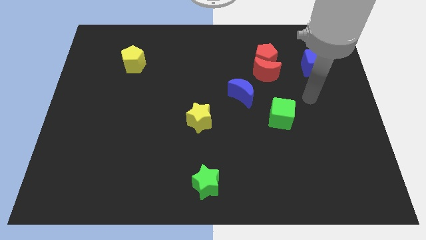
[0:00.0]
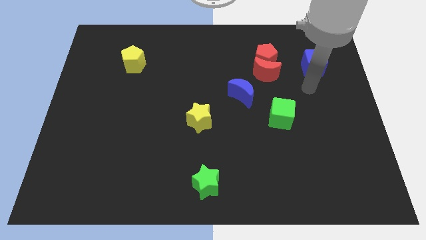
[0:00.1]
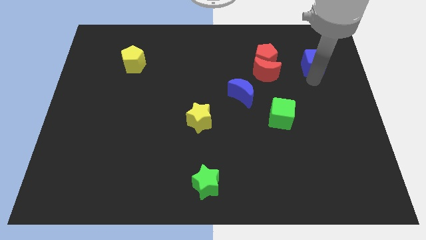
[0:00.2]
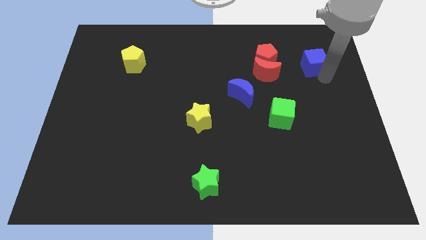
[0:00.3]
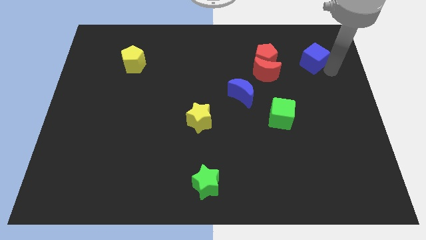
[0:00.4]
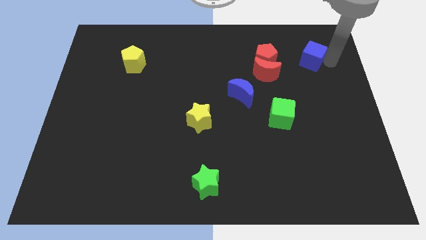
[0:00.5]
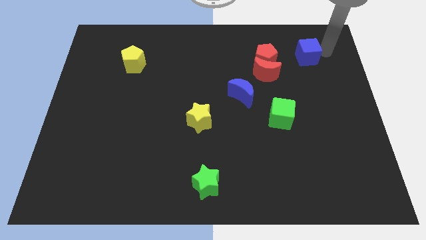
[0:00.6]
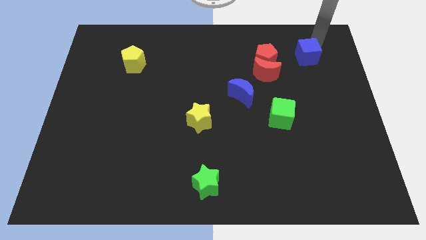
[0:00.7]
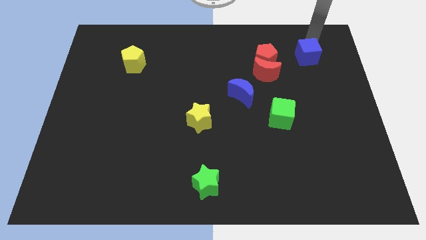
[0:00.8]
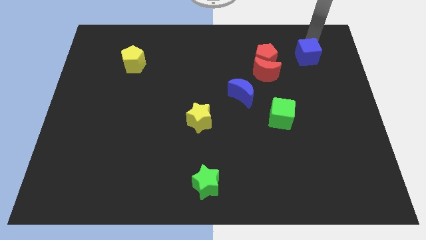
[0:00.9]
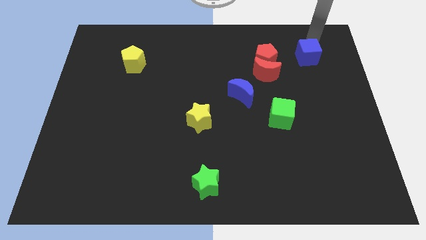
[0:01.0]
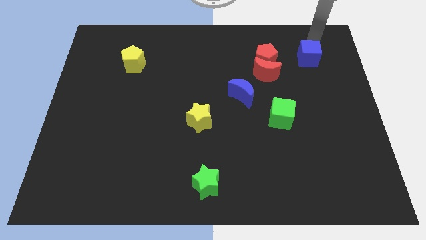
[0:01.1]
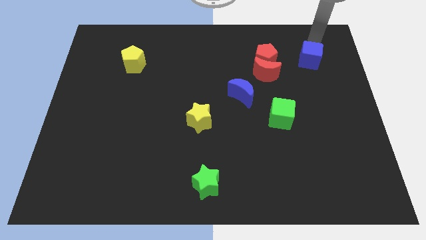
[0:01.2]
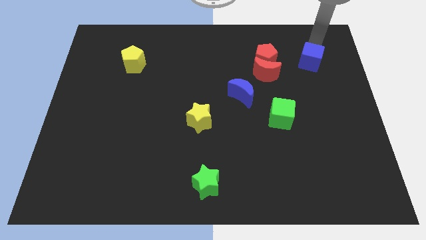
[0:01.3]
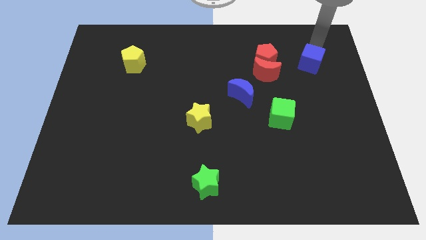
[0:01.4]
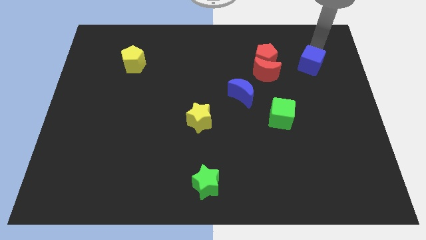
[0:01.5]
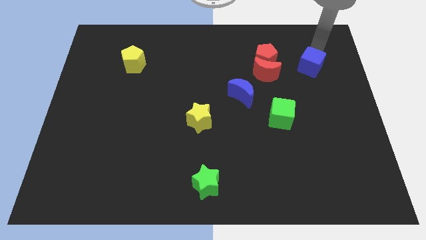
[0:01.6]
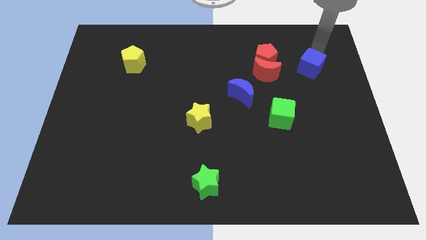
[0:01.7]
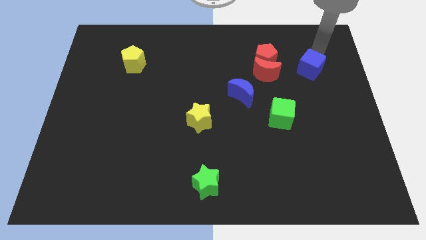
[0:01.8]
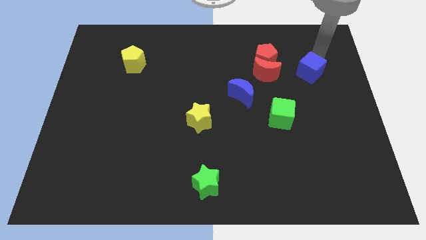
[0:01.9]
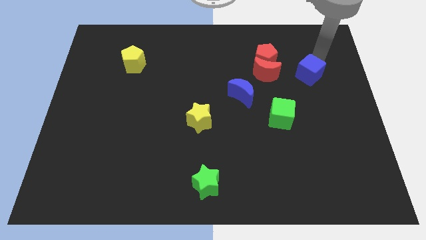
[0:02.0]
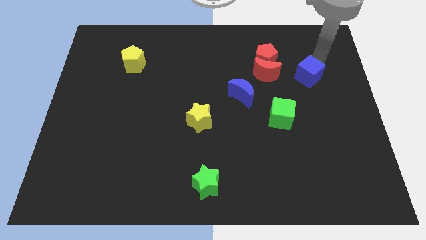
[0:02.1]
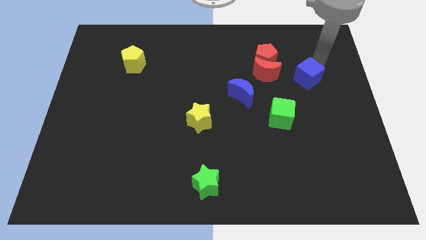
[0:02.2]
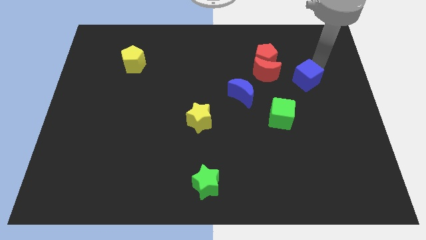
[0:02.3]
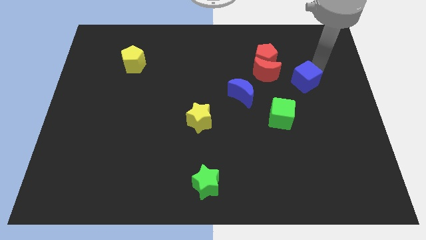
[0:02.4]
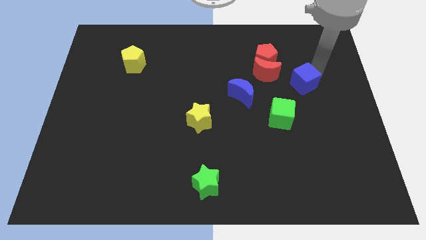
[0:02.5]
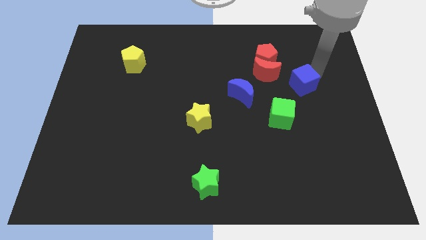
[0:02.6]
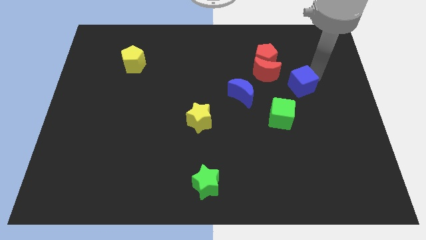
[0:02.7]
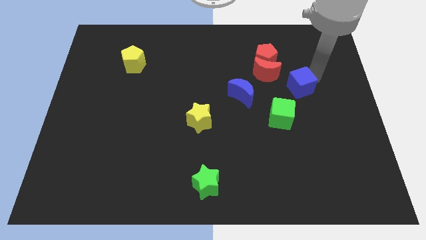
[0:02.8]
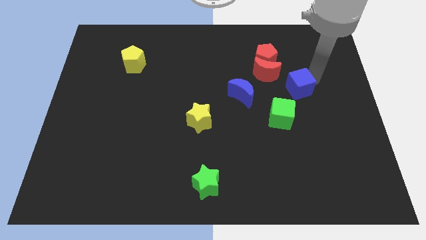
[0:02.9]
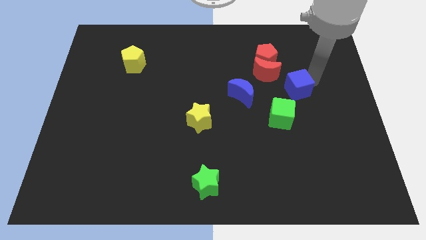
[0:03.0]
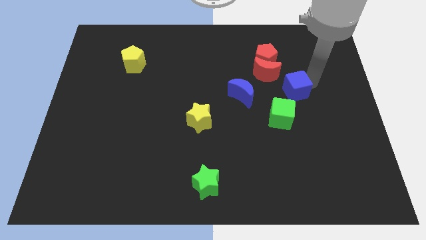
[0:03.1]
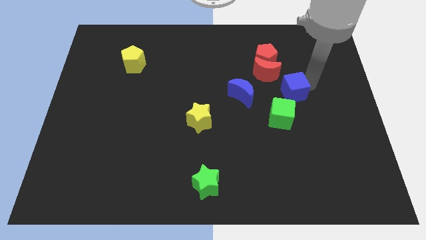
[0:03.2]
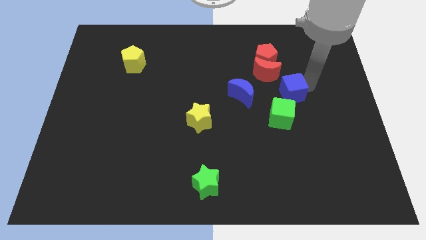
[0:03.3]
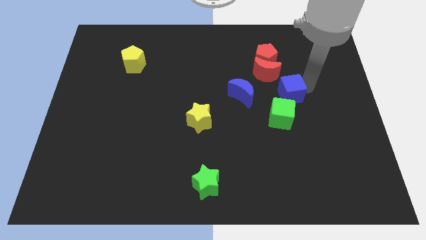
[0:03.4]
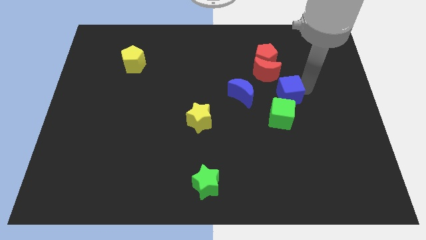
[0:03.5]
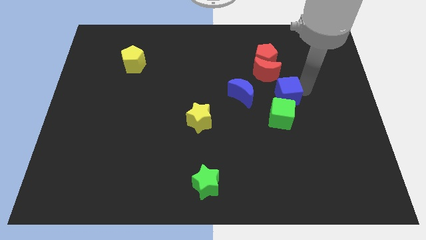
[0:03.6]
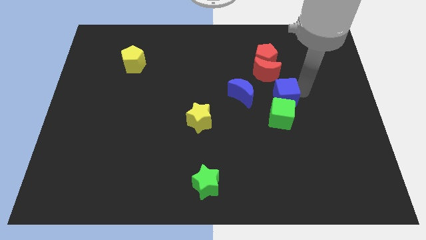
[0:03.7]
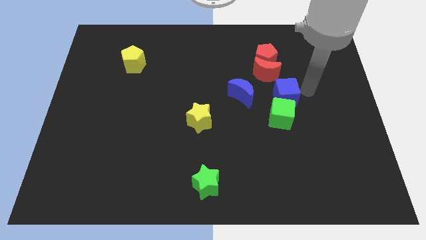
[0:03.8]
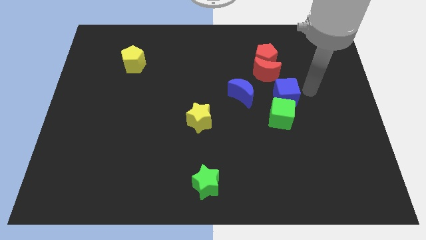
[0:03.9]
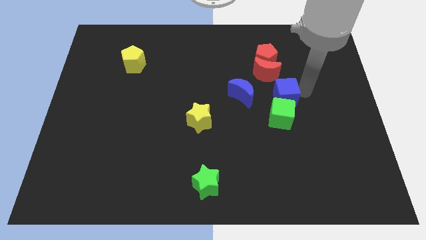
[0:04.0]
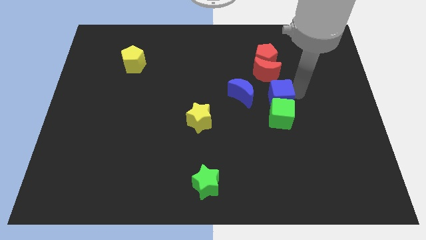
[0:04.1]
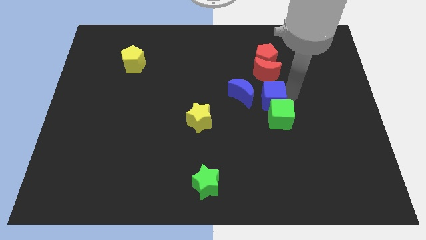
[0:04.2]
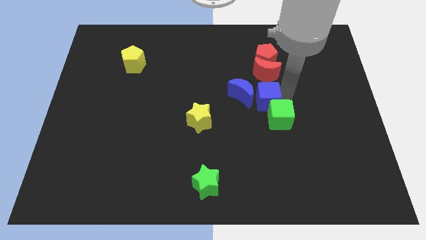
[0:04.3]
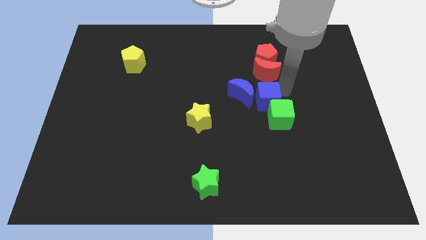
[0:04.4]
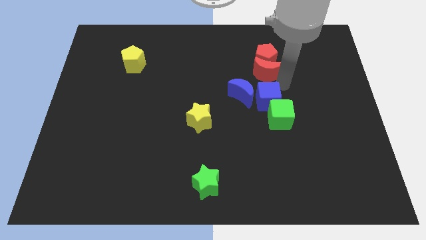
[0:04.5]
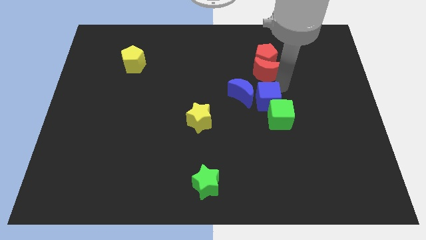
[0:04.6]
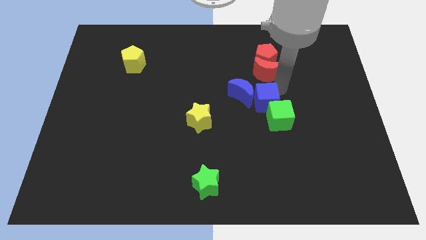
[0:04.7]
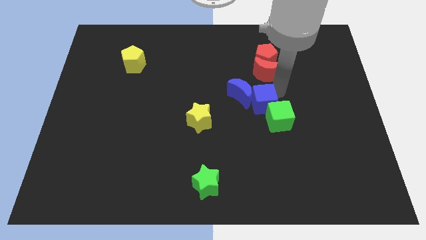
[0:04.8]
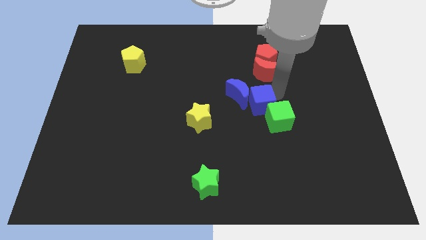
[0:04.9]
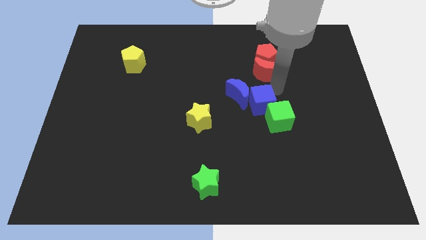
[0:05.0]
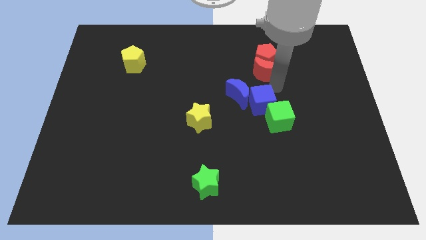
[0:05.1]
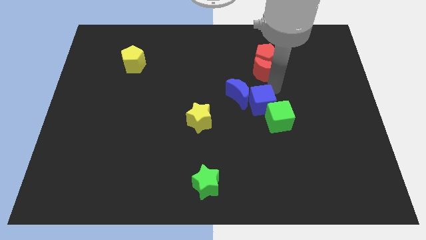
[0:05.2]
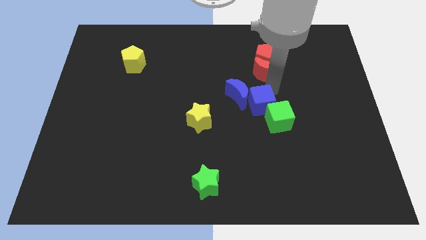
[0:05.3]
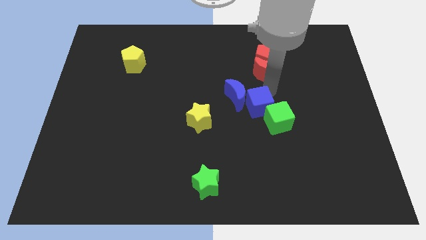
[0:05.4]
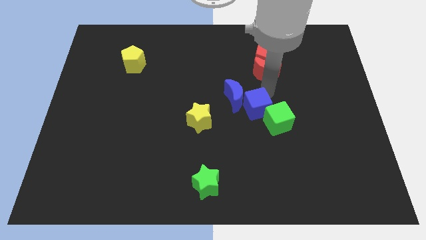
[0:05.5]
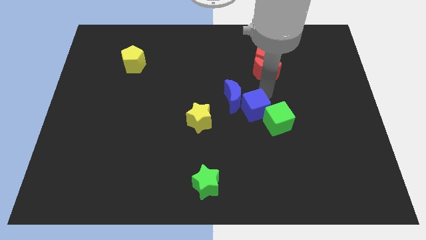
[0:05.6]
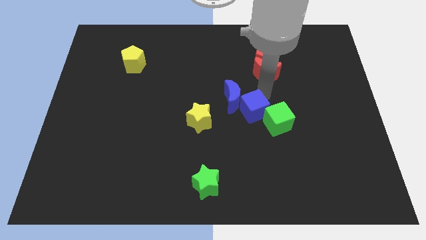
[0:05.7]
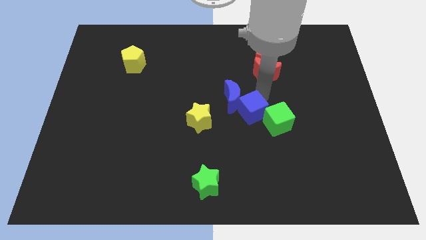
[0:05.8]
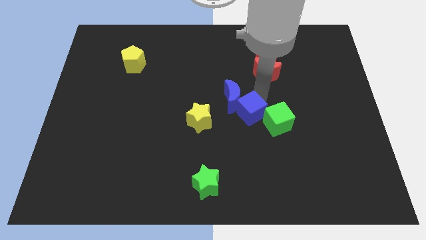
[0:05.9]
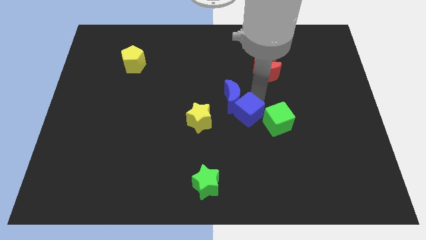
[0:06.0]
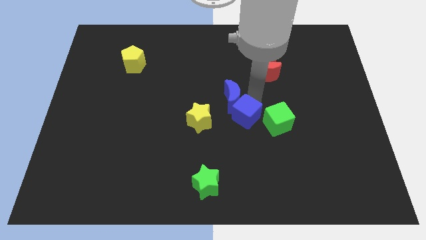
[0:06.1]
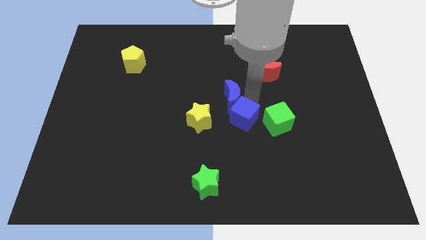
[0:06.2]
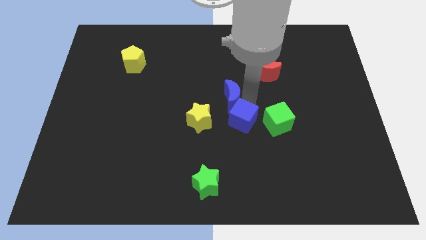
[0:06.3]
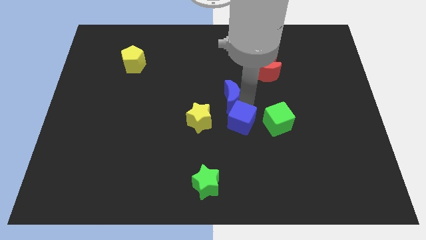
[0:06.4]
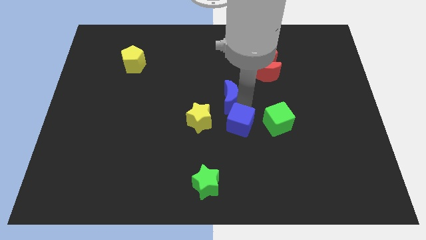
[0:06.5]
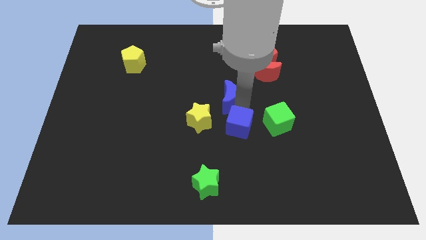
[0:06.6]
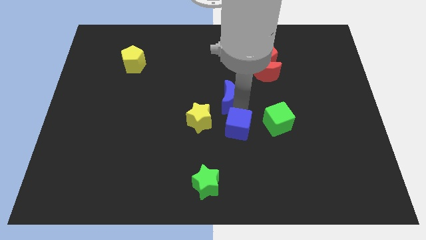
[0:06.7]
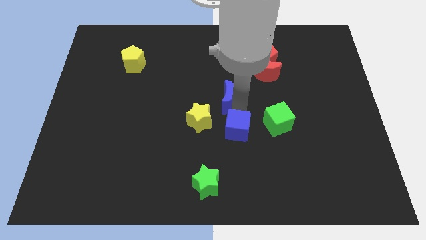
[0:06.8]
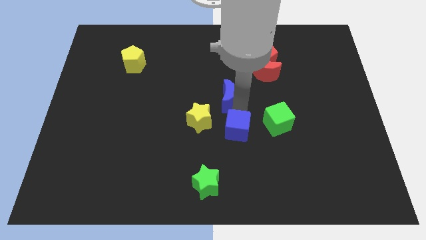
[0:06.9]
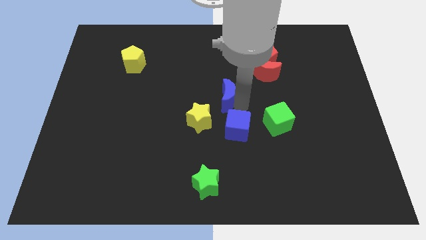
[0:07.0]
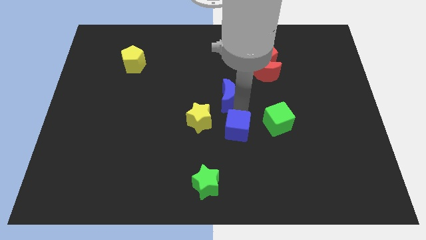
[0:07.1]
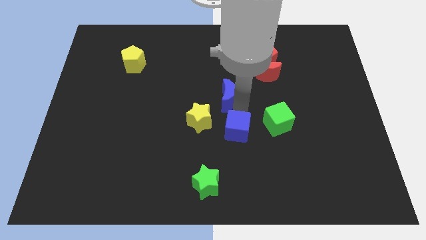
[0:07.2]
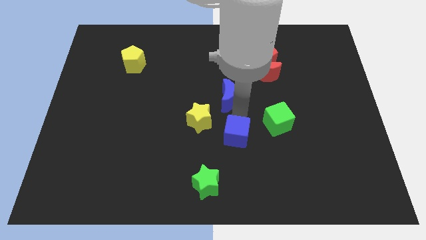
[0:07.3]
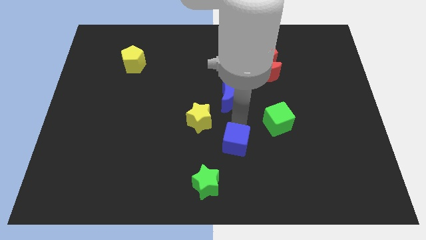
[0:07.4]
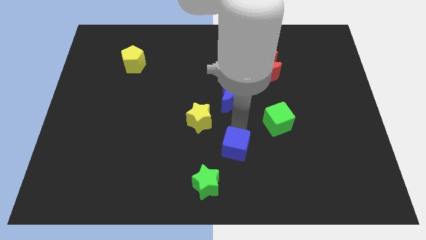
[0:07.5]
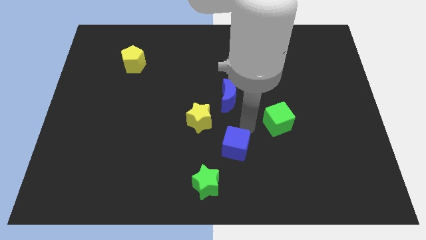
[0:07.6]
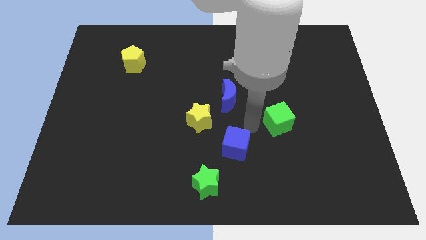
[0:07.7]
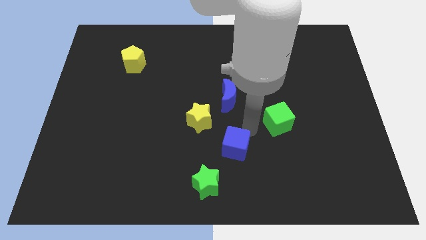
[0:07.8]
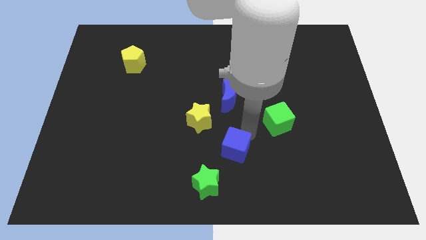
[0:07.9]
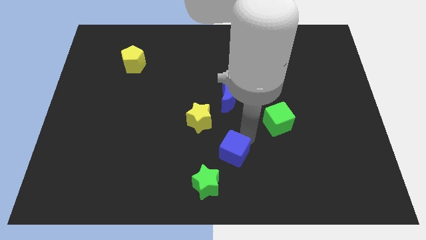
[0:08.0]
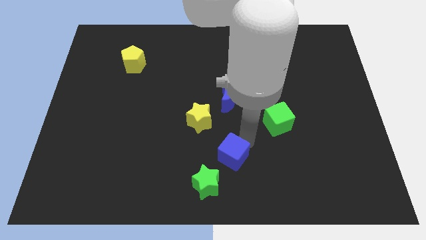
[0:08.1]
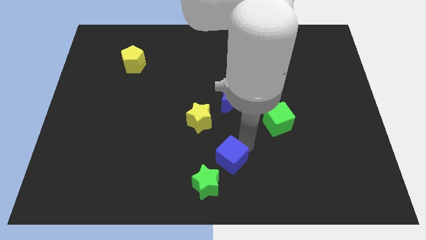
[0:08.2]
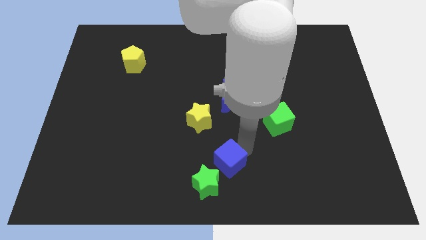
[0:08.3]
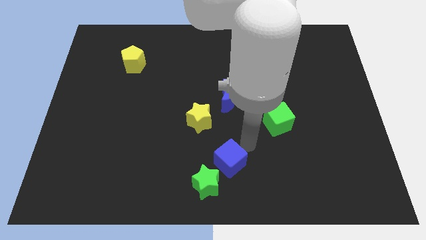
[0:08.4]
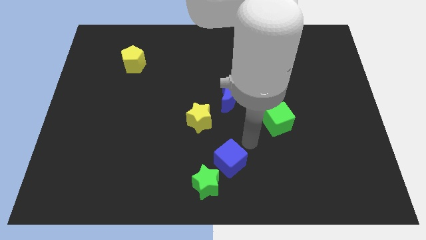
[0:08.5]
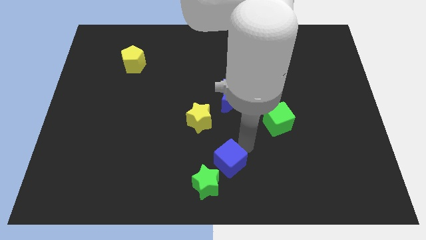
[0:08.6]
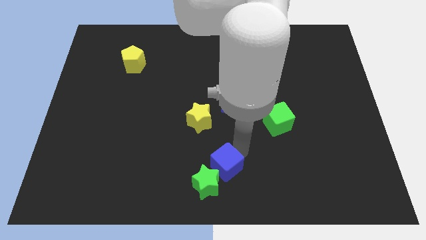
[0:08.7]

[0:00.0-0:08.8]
move the blue cube to the green star
